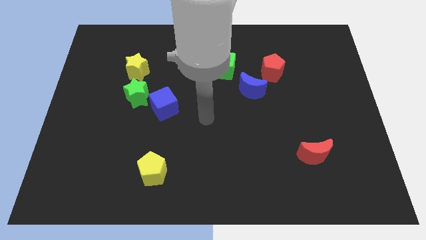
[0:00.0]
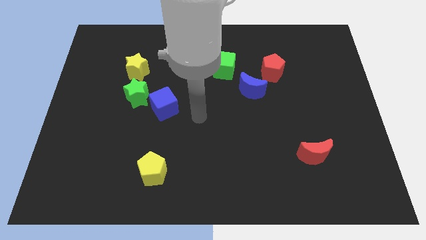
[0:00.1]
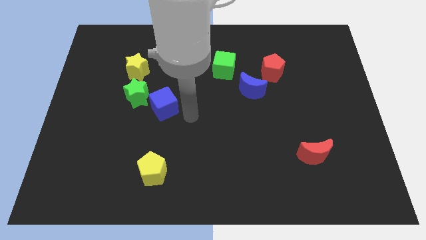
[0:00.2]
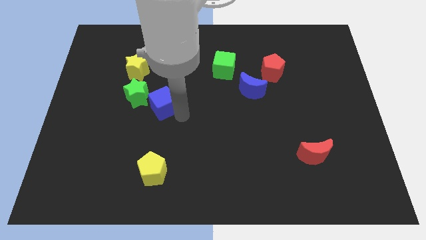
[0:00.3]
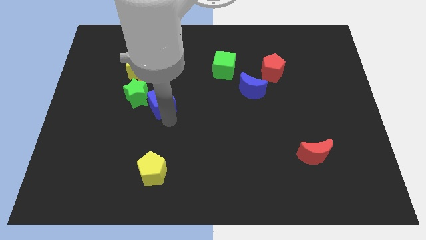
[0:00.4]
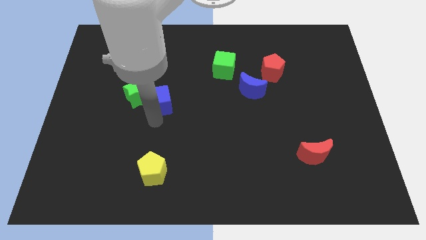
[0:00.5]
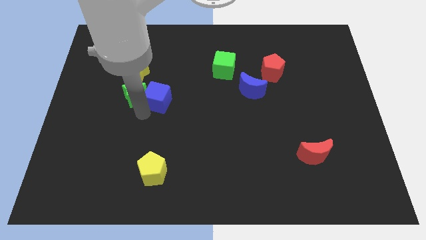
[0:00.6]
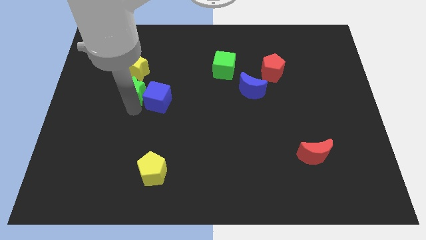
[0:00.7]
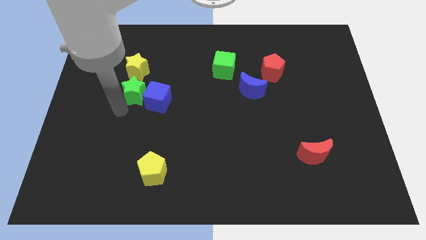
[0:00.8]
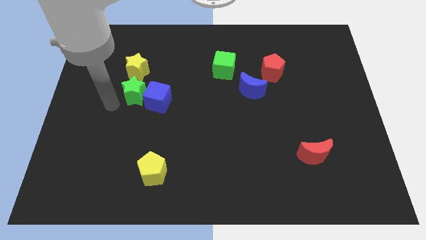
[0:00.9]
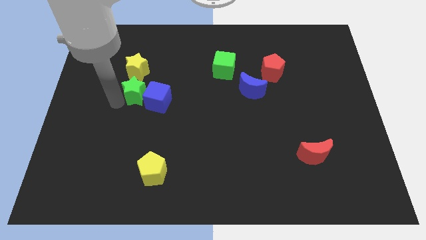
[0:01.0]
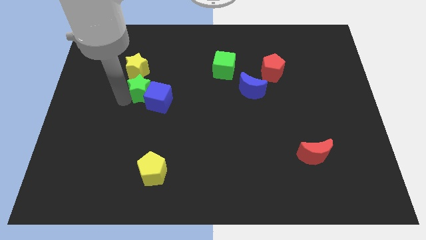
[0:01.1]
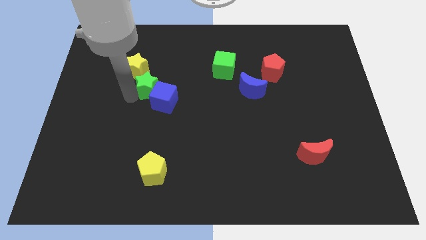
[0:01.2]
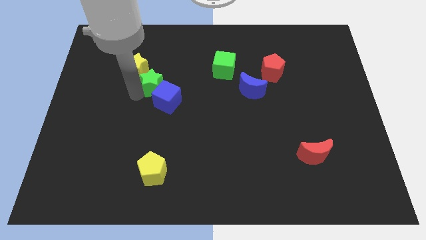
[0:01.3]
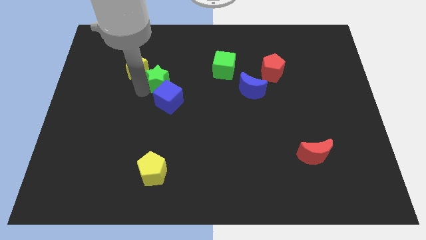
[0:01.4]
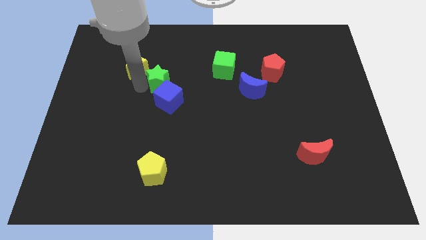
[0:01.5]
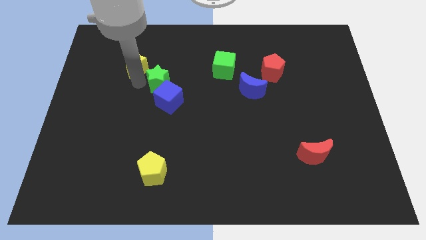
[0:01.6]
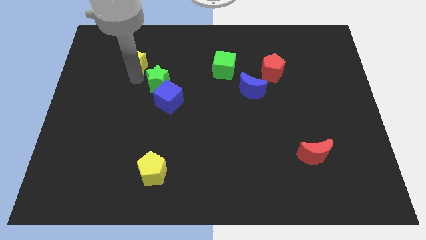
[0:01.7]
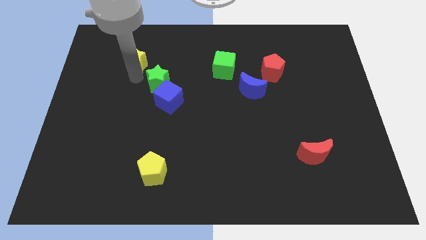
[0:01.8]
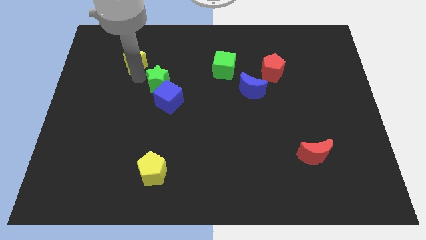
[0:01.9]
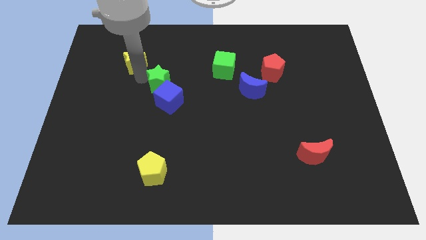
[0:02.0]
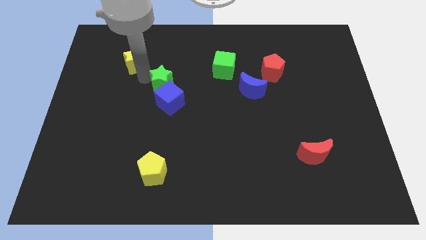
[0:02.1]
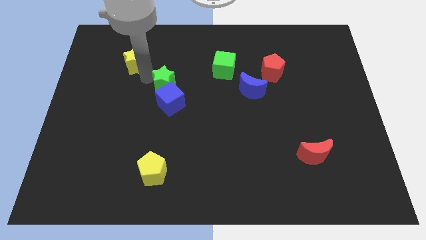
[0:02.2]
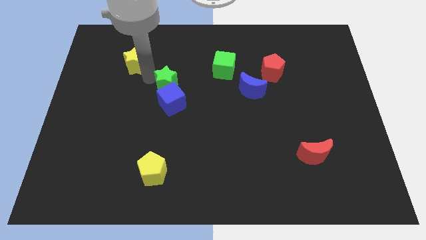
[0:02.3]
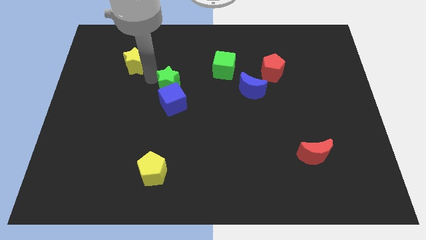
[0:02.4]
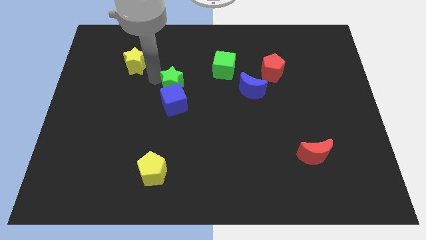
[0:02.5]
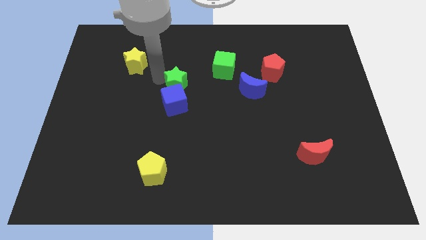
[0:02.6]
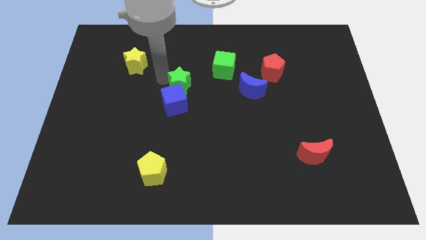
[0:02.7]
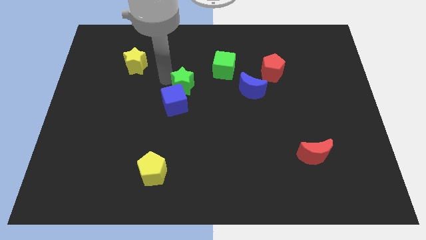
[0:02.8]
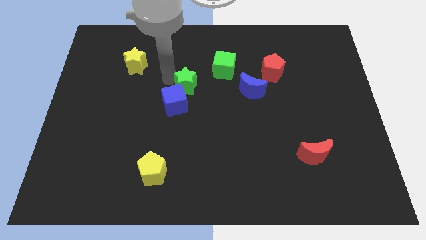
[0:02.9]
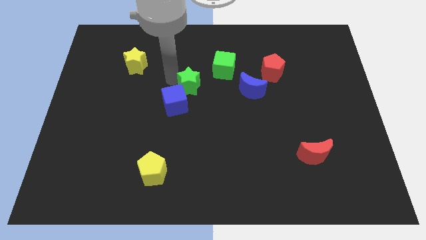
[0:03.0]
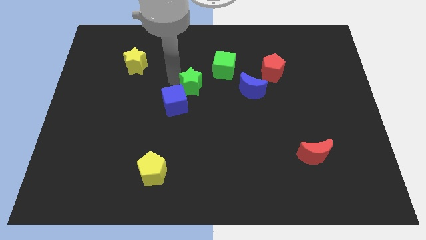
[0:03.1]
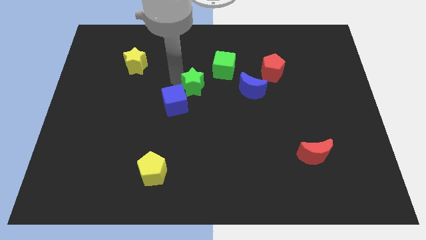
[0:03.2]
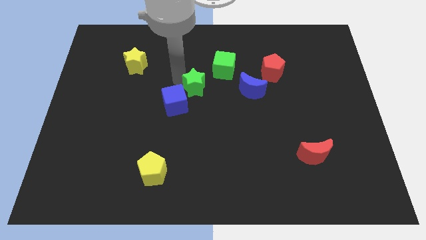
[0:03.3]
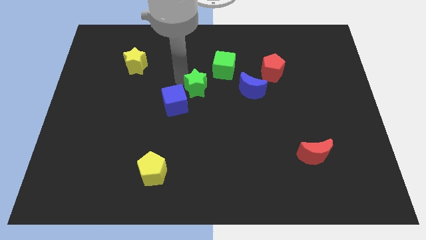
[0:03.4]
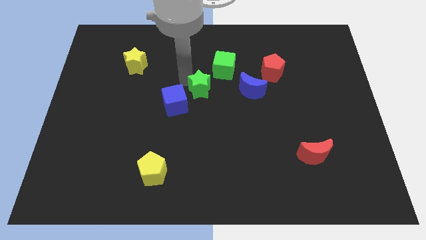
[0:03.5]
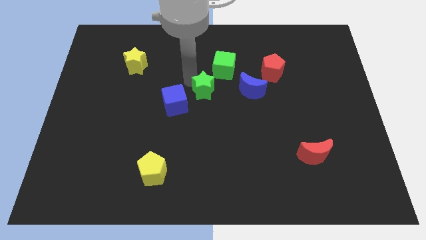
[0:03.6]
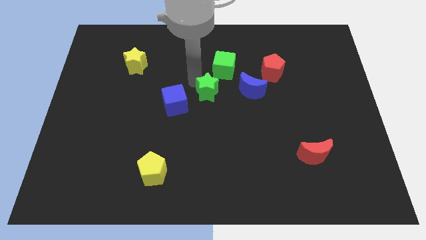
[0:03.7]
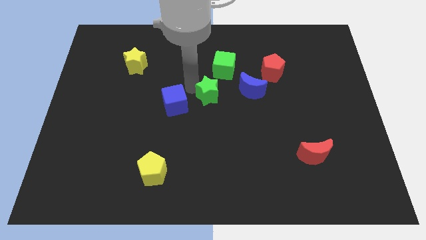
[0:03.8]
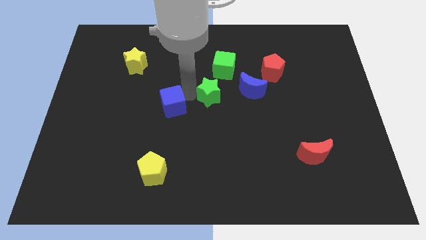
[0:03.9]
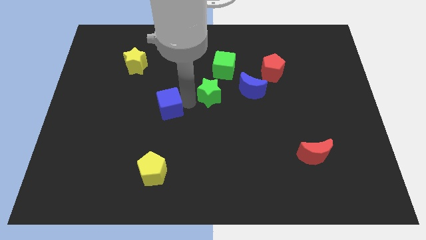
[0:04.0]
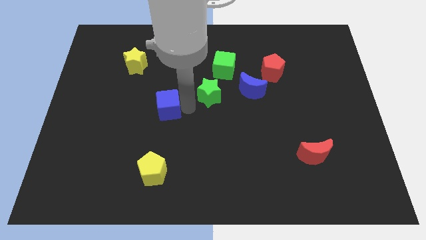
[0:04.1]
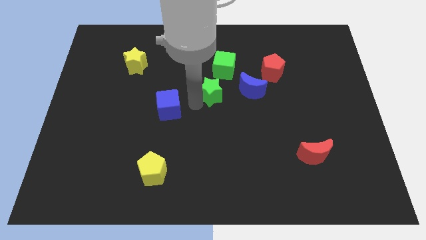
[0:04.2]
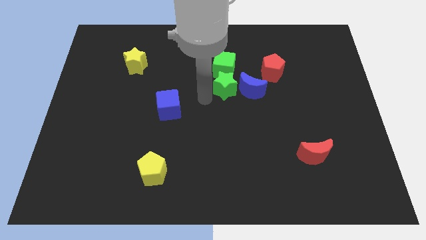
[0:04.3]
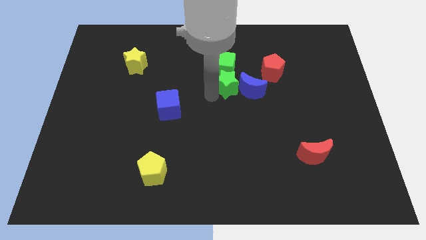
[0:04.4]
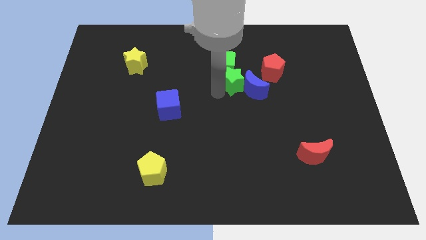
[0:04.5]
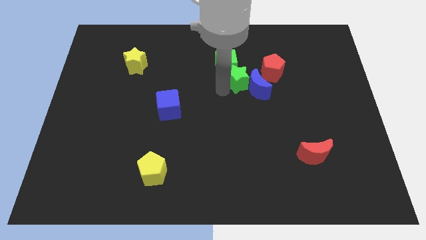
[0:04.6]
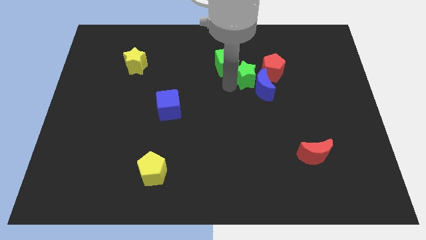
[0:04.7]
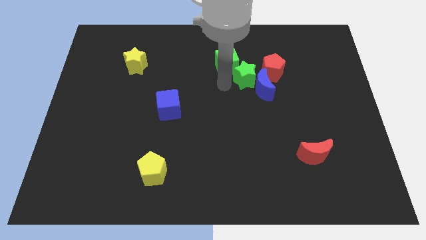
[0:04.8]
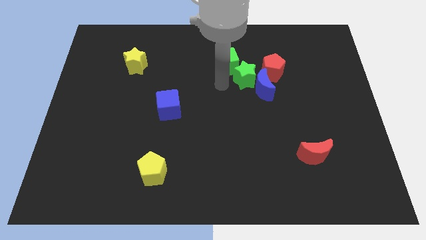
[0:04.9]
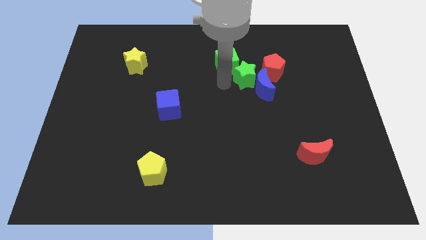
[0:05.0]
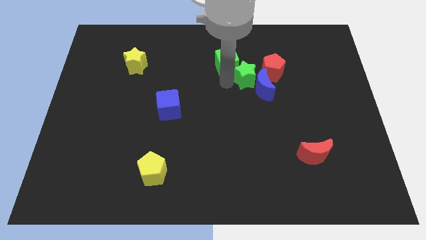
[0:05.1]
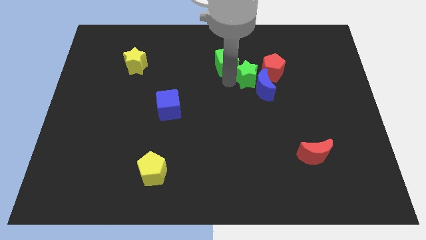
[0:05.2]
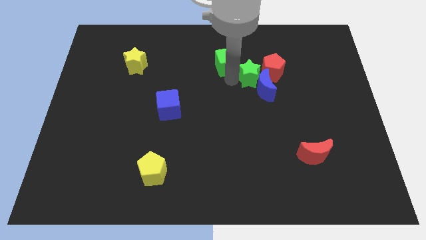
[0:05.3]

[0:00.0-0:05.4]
slide the green star towards the red pentagon

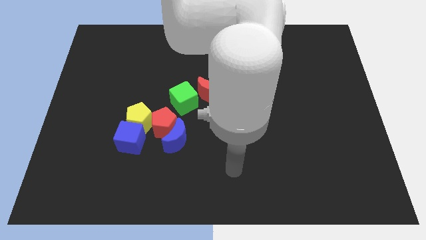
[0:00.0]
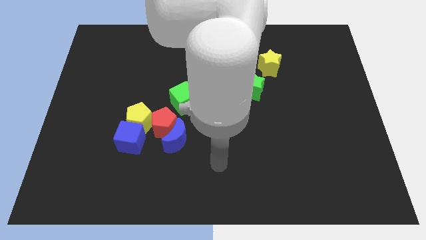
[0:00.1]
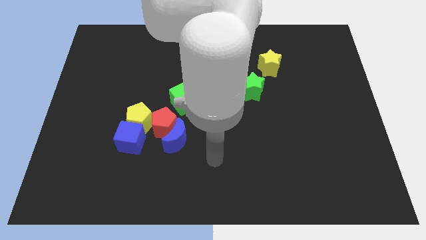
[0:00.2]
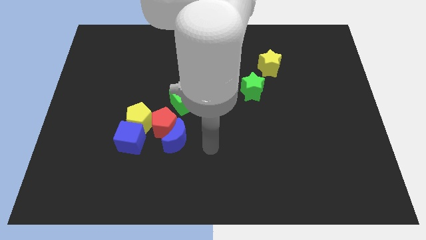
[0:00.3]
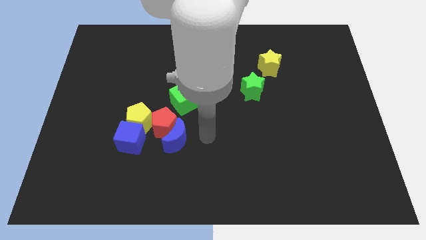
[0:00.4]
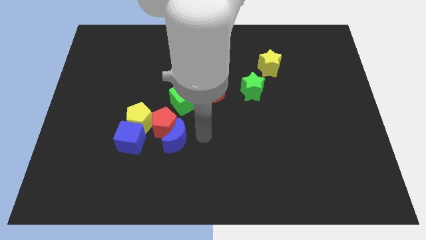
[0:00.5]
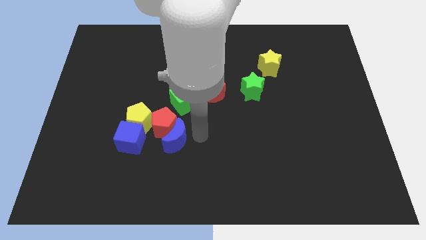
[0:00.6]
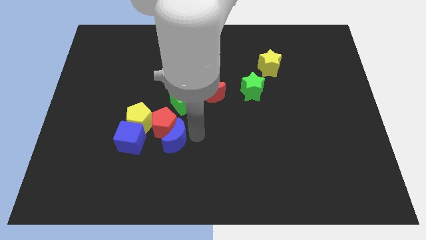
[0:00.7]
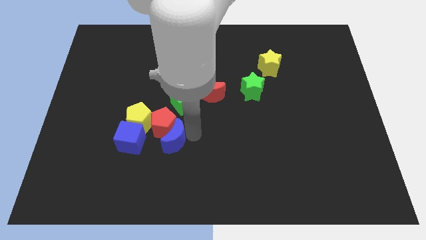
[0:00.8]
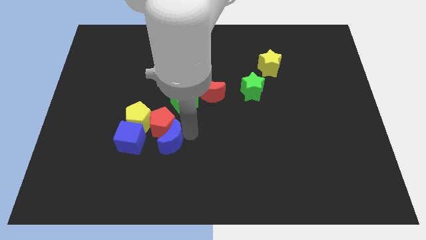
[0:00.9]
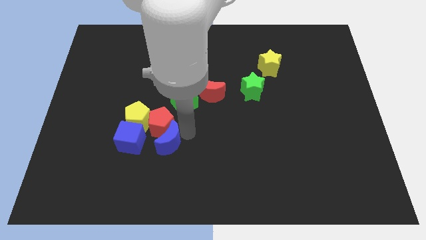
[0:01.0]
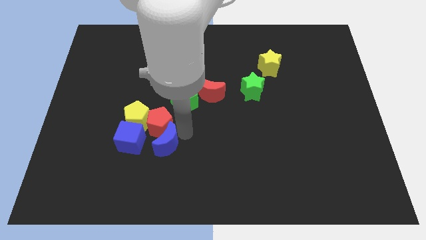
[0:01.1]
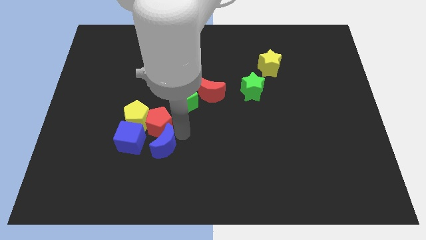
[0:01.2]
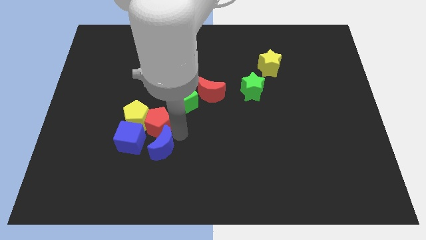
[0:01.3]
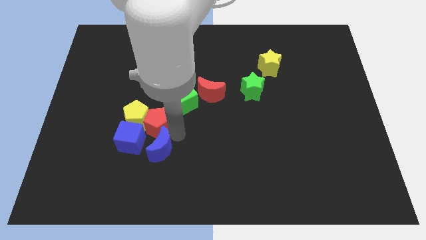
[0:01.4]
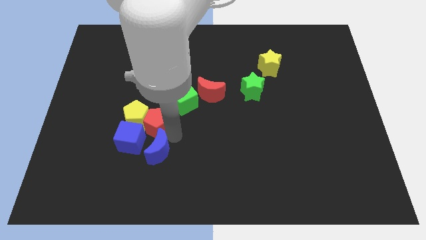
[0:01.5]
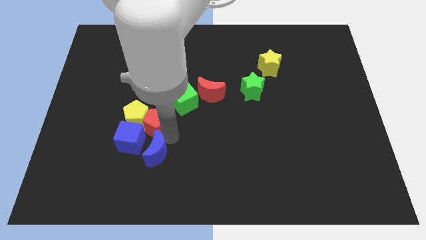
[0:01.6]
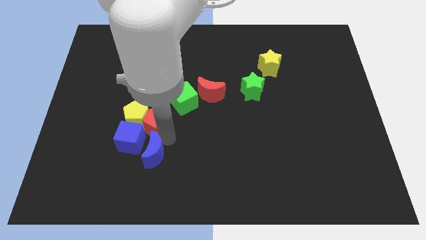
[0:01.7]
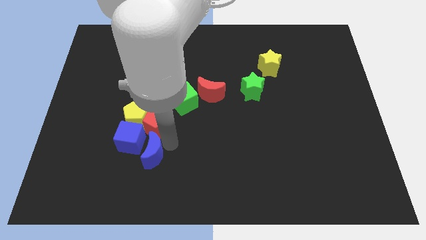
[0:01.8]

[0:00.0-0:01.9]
slide the blue moon towards the blue cube
